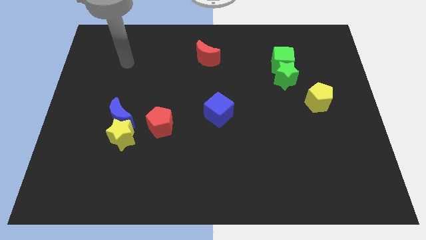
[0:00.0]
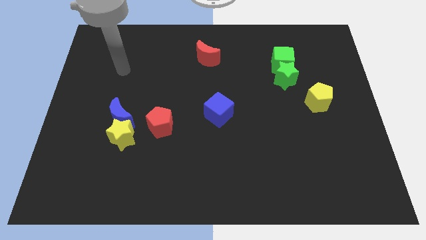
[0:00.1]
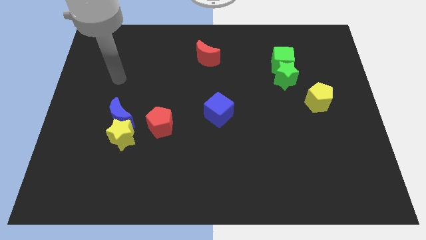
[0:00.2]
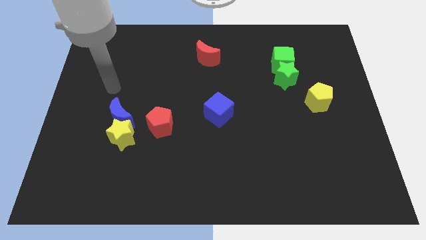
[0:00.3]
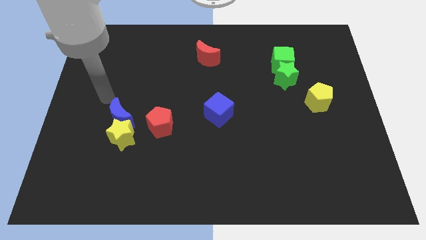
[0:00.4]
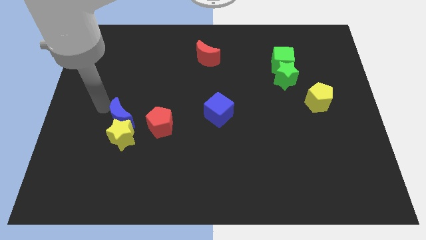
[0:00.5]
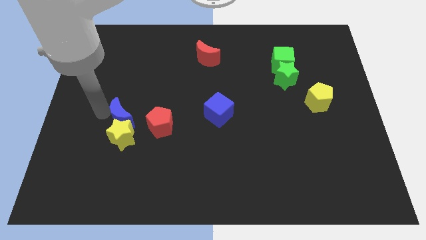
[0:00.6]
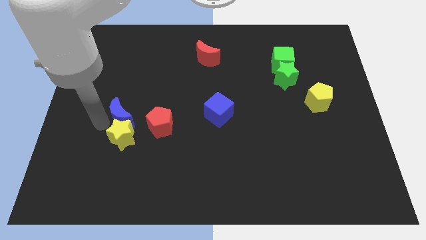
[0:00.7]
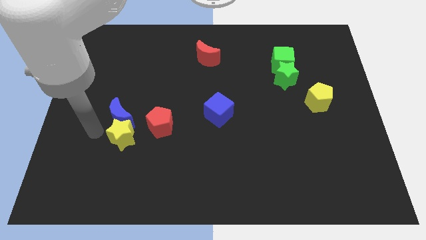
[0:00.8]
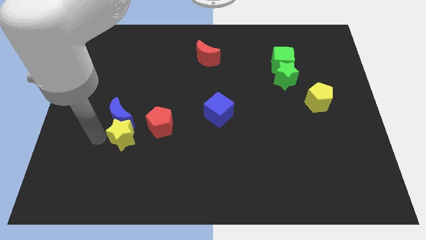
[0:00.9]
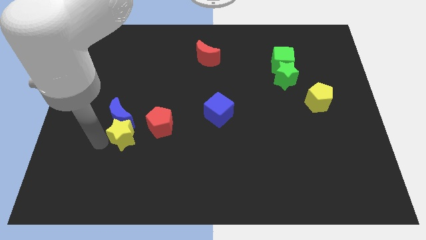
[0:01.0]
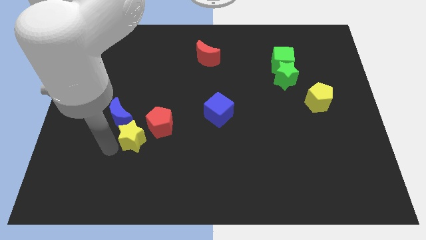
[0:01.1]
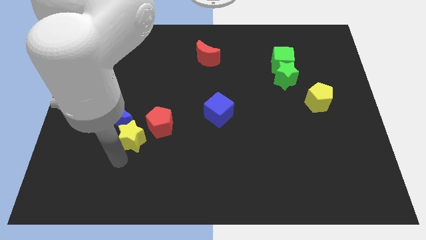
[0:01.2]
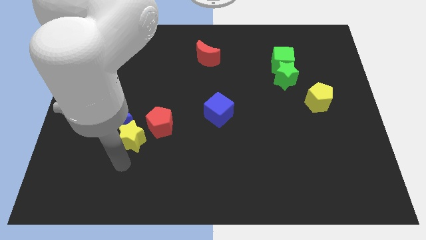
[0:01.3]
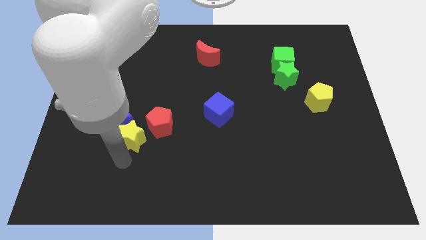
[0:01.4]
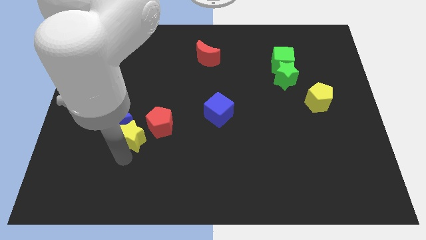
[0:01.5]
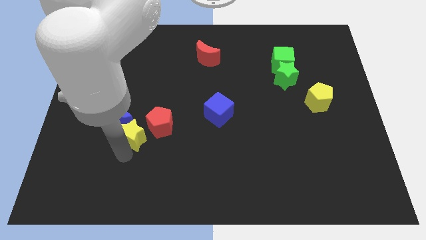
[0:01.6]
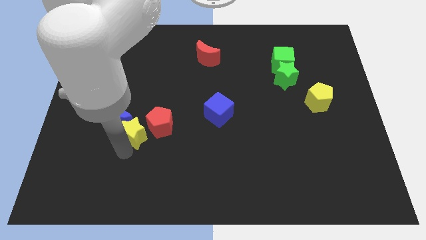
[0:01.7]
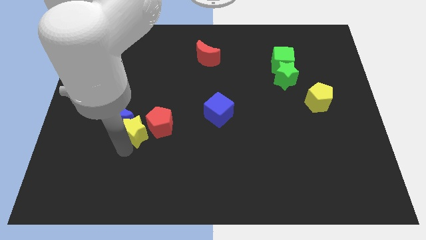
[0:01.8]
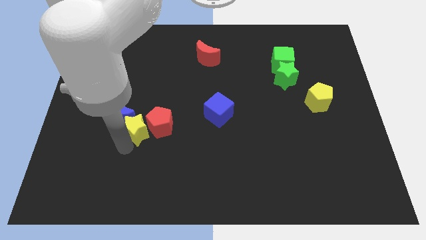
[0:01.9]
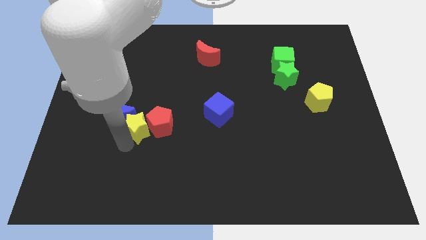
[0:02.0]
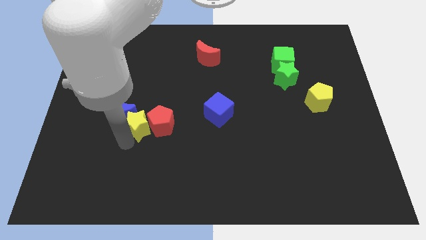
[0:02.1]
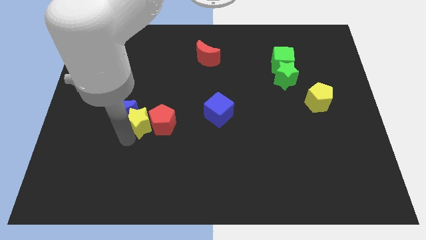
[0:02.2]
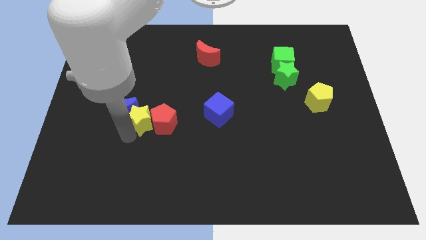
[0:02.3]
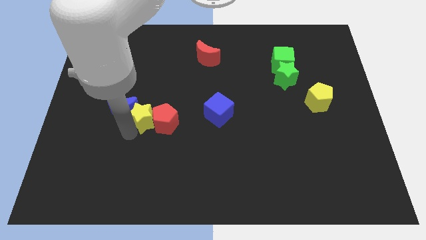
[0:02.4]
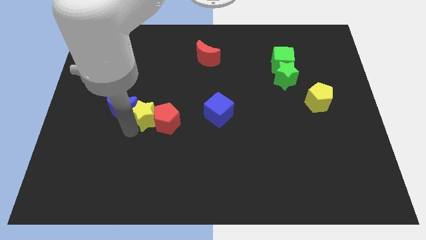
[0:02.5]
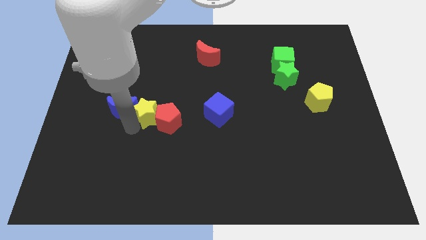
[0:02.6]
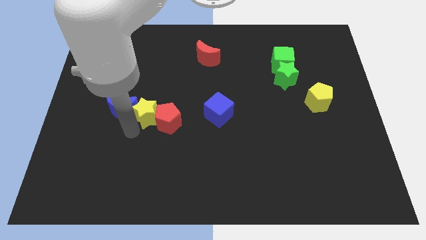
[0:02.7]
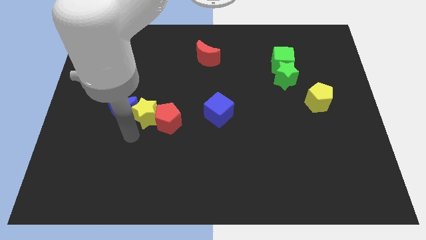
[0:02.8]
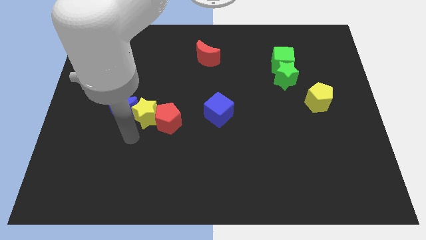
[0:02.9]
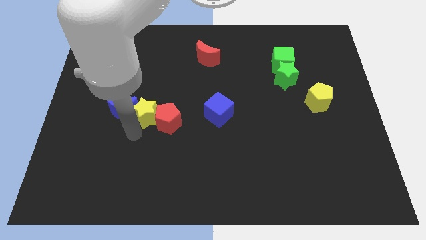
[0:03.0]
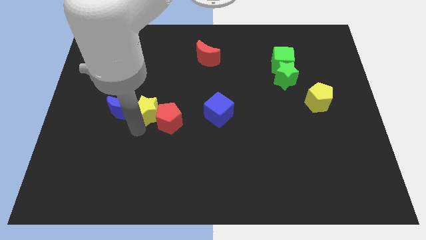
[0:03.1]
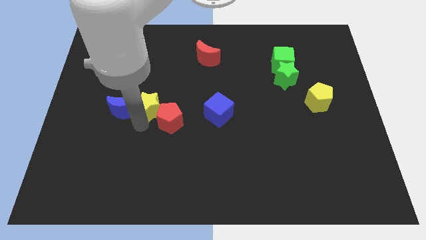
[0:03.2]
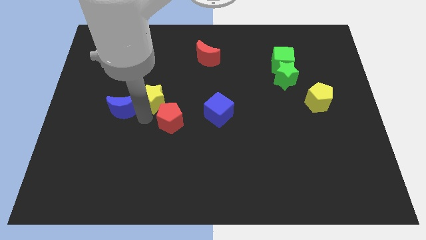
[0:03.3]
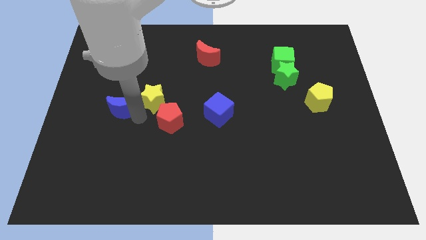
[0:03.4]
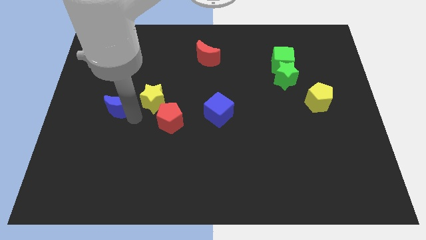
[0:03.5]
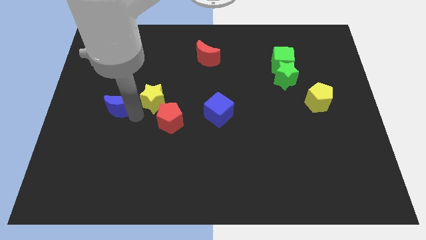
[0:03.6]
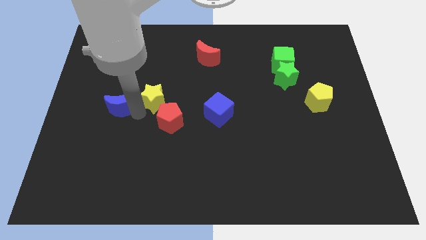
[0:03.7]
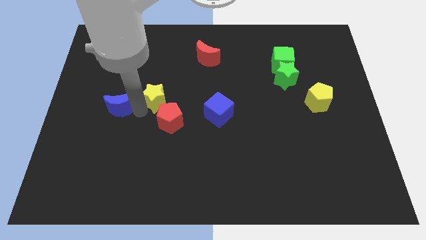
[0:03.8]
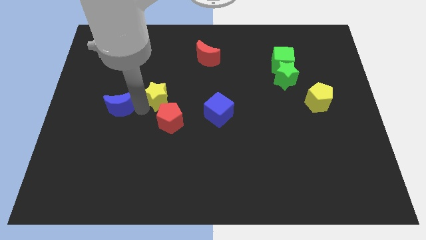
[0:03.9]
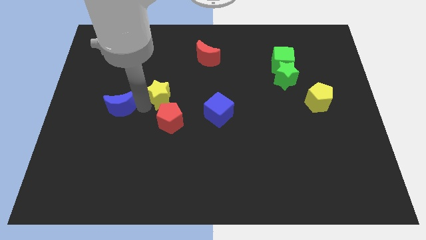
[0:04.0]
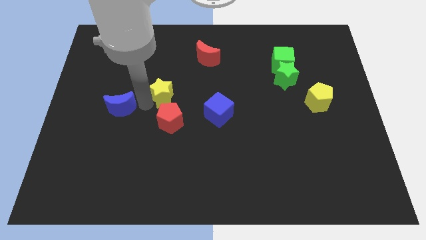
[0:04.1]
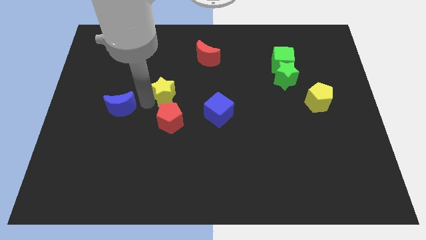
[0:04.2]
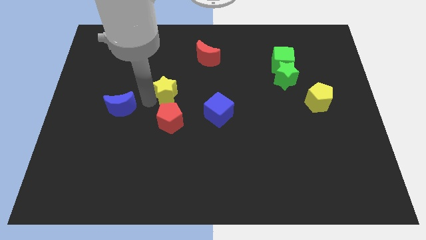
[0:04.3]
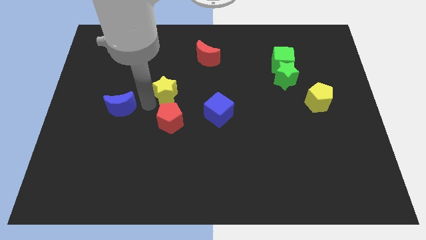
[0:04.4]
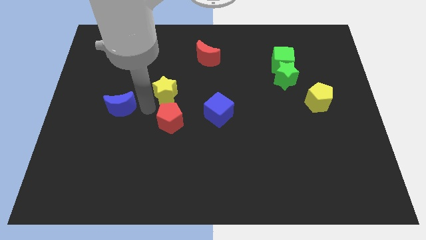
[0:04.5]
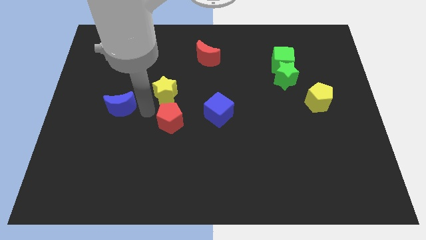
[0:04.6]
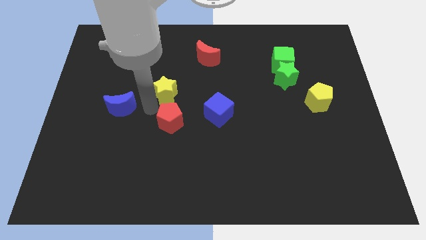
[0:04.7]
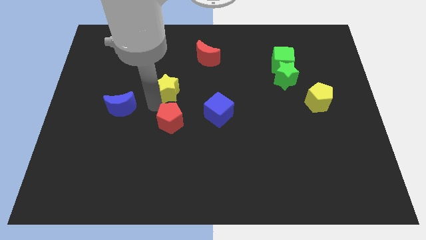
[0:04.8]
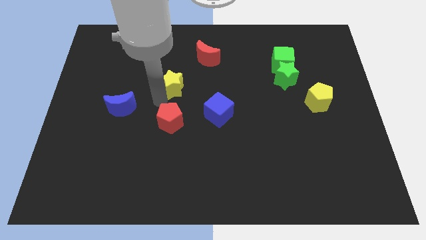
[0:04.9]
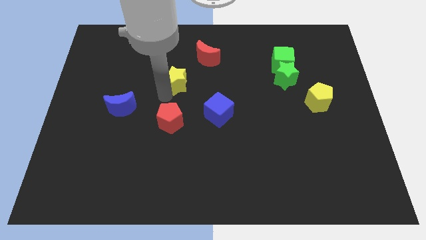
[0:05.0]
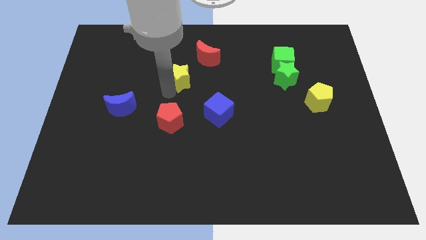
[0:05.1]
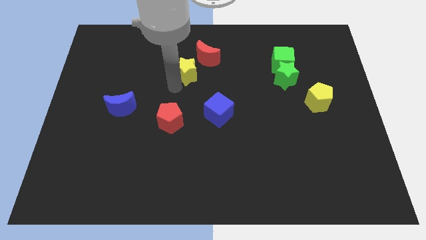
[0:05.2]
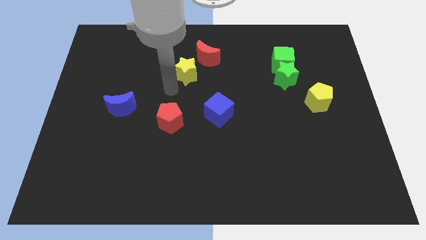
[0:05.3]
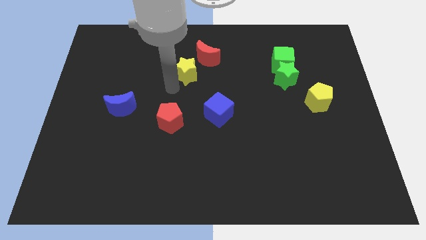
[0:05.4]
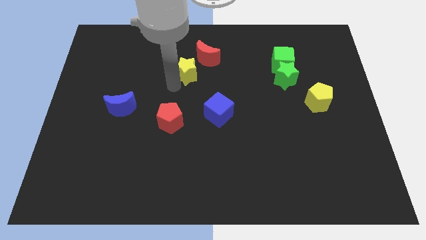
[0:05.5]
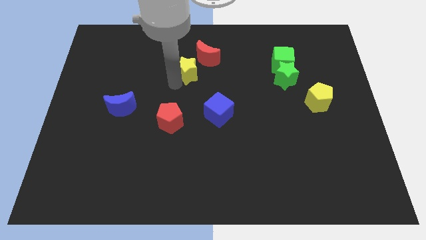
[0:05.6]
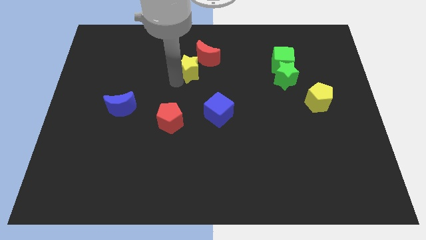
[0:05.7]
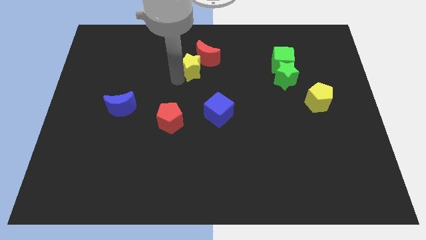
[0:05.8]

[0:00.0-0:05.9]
put the yellow star close to the red moon

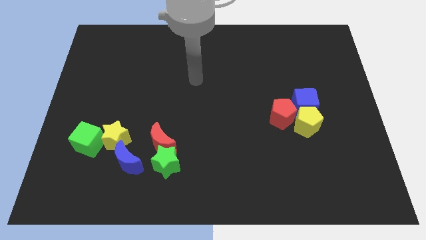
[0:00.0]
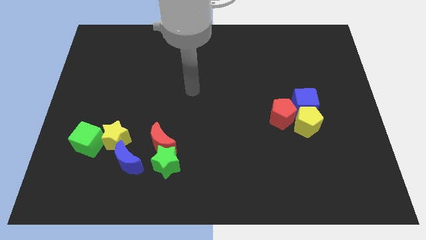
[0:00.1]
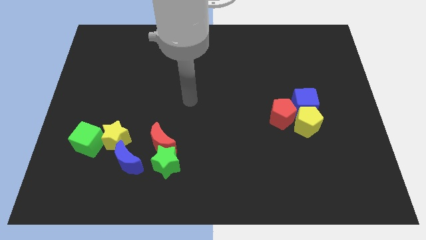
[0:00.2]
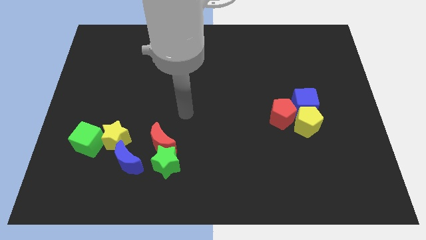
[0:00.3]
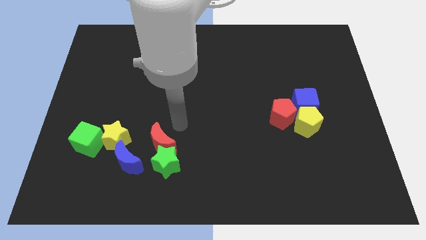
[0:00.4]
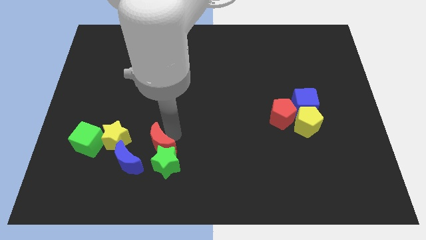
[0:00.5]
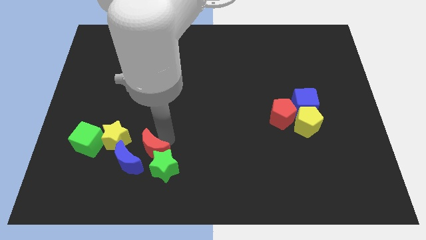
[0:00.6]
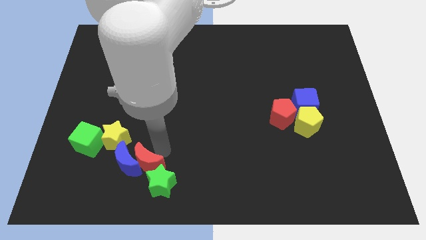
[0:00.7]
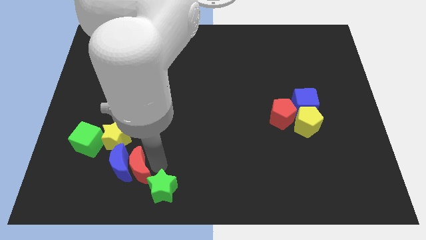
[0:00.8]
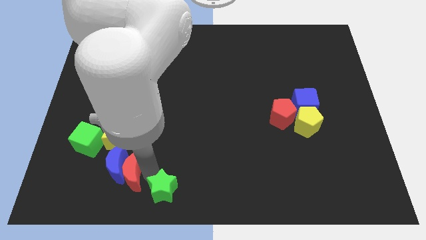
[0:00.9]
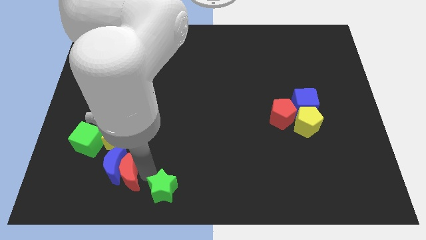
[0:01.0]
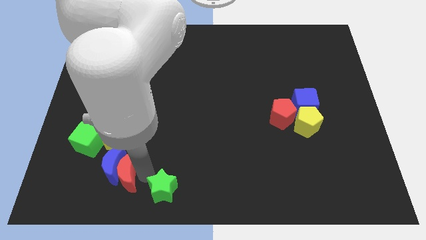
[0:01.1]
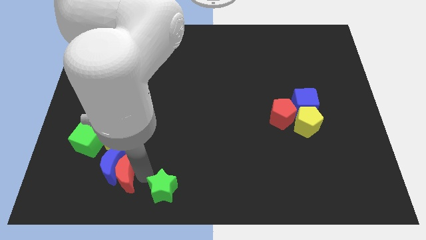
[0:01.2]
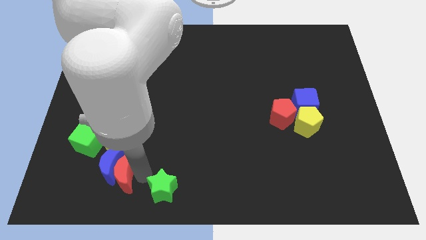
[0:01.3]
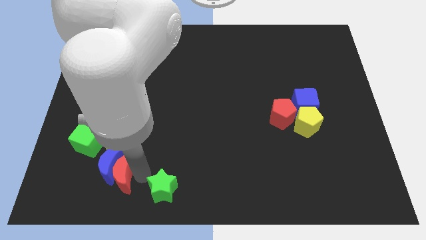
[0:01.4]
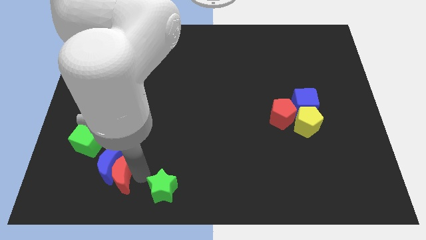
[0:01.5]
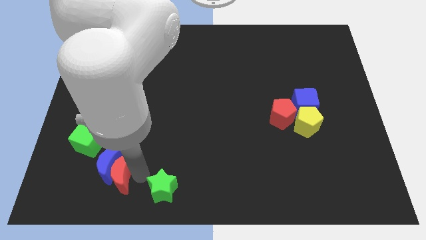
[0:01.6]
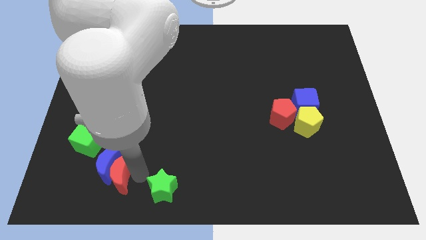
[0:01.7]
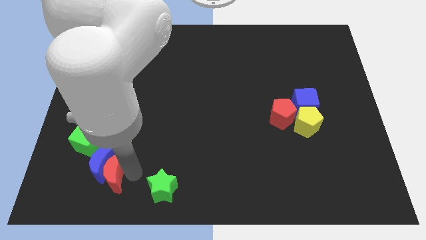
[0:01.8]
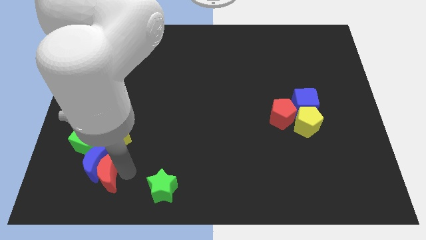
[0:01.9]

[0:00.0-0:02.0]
move the blue moon to the green cube

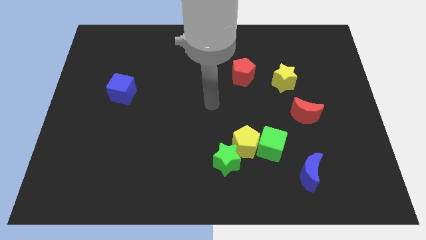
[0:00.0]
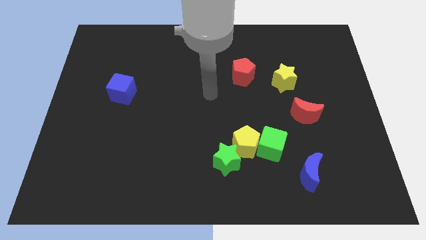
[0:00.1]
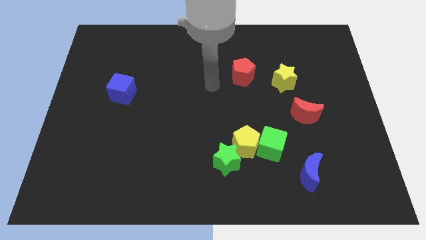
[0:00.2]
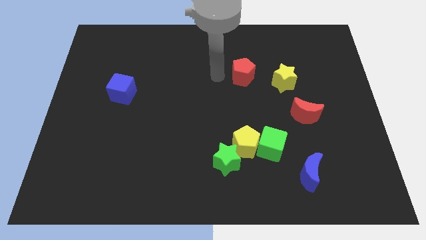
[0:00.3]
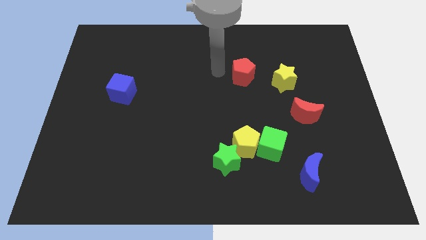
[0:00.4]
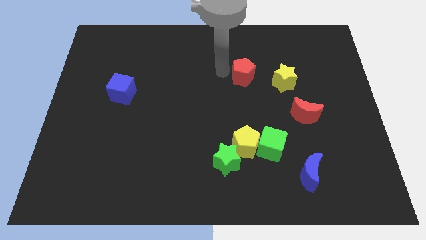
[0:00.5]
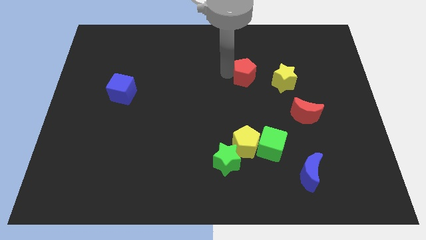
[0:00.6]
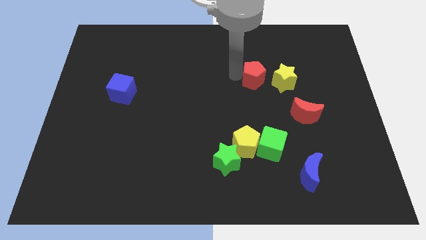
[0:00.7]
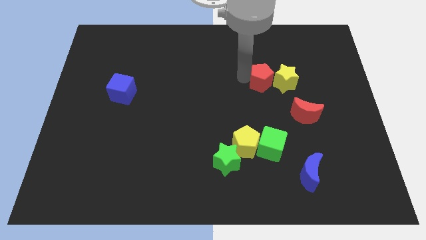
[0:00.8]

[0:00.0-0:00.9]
move the red pentagon next to the yellow star
